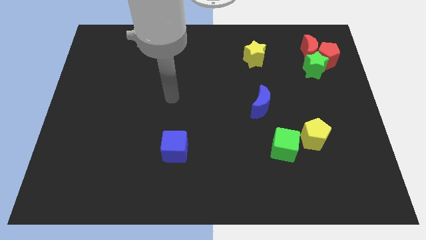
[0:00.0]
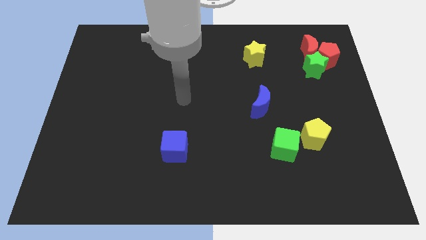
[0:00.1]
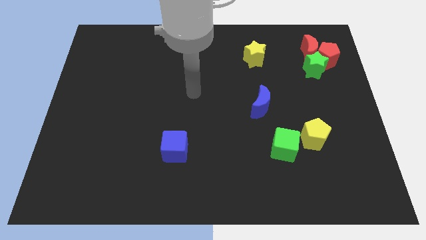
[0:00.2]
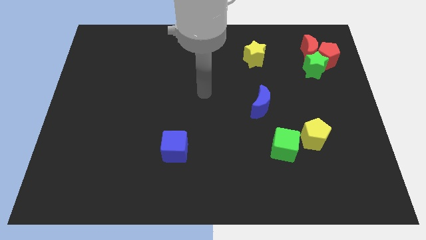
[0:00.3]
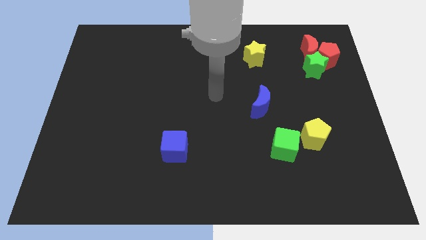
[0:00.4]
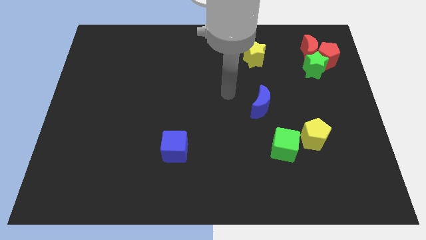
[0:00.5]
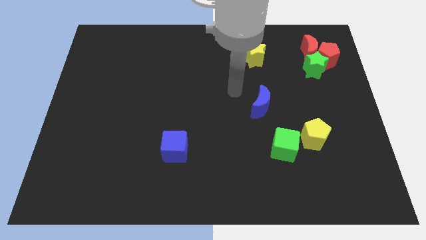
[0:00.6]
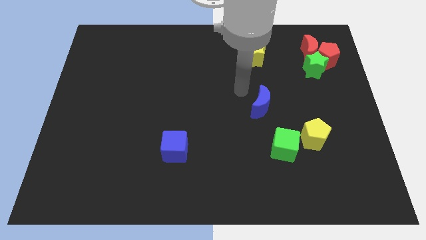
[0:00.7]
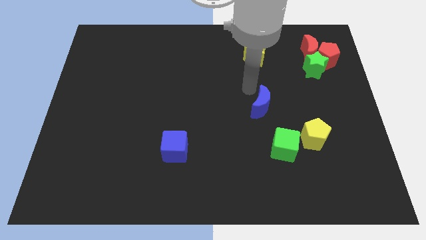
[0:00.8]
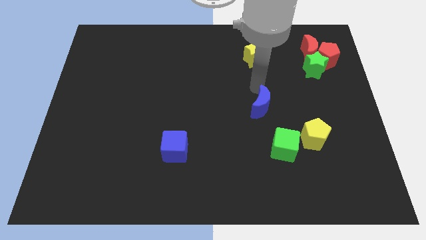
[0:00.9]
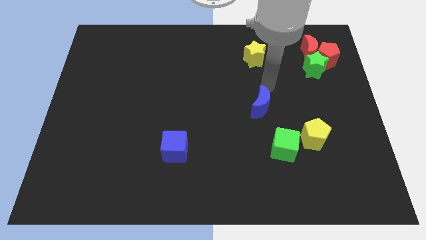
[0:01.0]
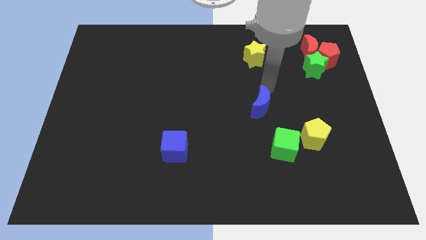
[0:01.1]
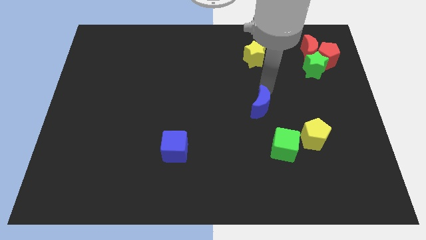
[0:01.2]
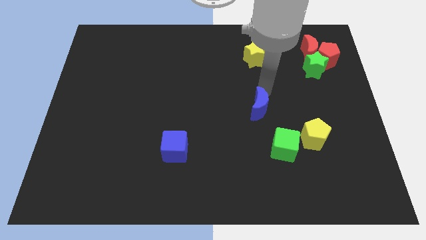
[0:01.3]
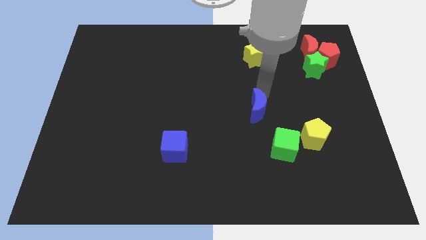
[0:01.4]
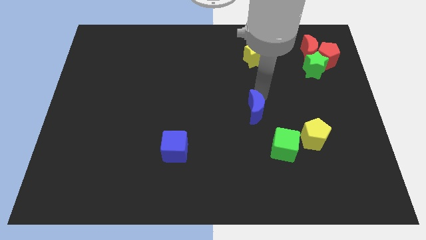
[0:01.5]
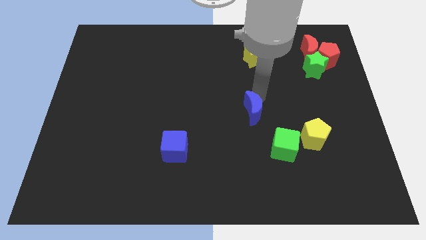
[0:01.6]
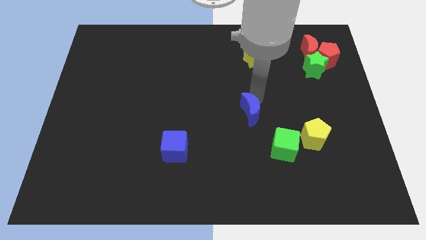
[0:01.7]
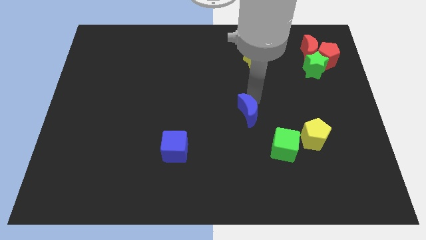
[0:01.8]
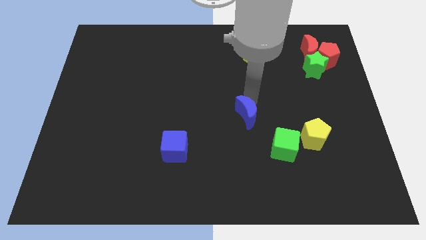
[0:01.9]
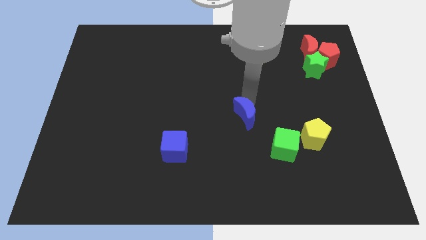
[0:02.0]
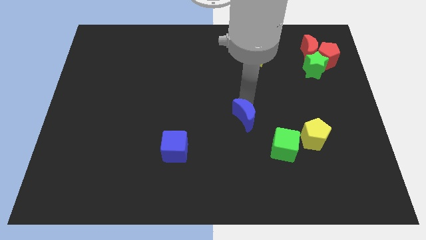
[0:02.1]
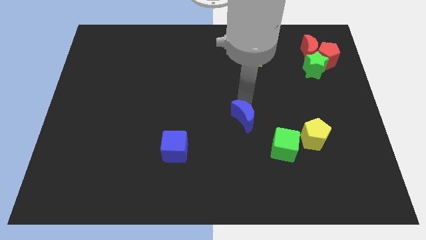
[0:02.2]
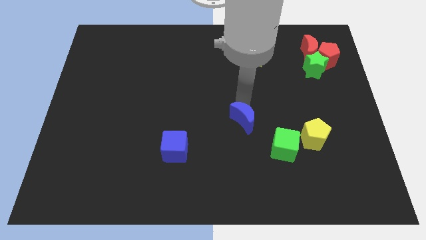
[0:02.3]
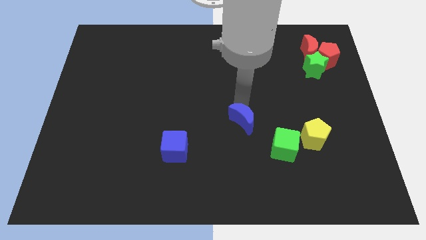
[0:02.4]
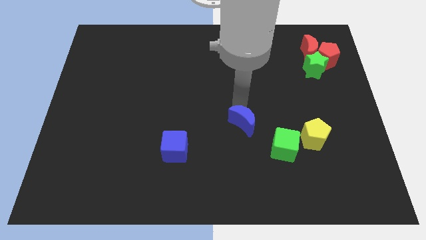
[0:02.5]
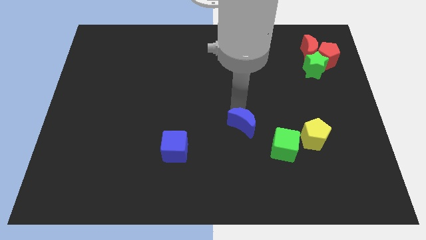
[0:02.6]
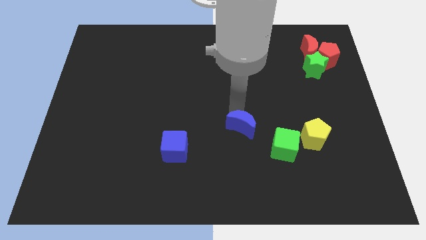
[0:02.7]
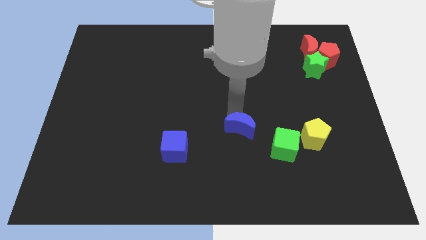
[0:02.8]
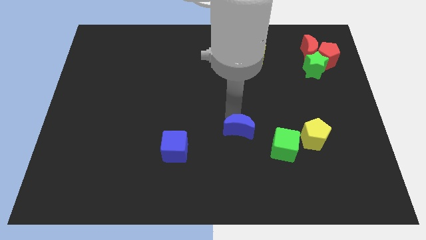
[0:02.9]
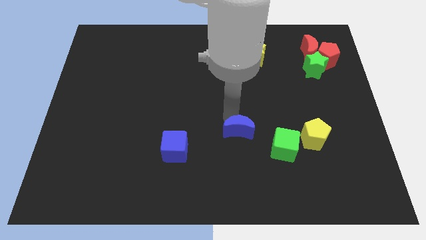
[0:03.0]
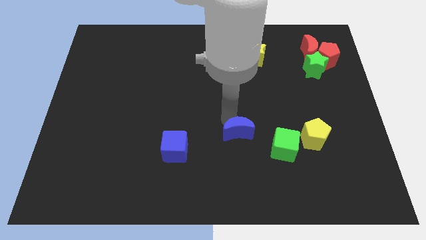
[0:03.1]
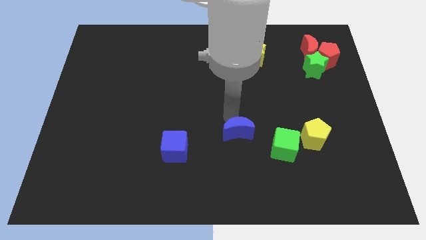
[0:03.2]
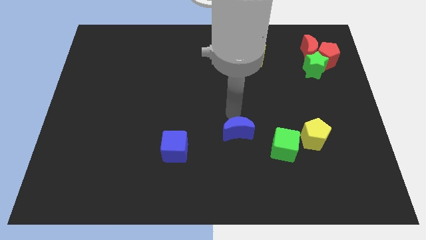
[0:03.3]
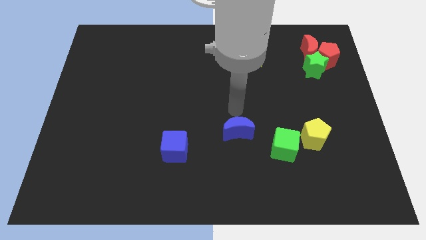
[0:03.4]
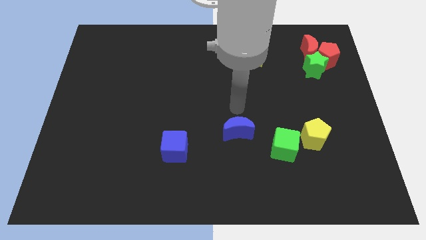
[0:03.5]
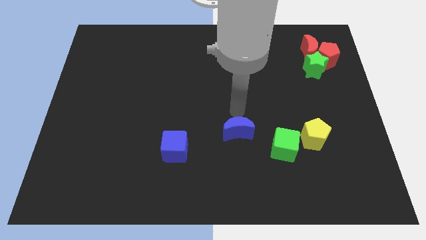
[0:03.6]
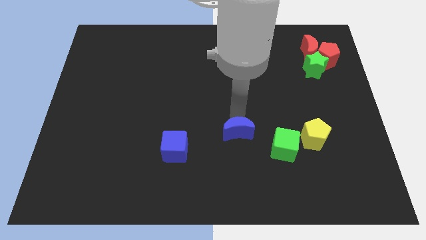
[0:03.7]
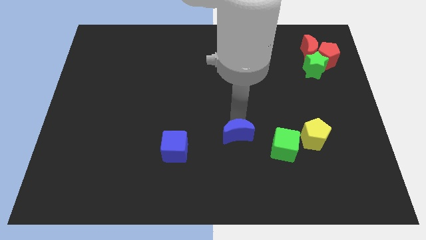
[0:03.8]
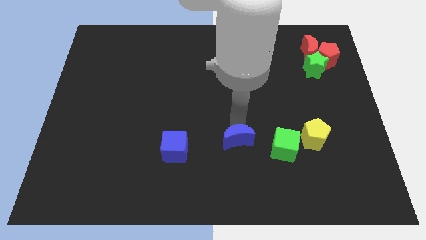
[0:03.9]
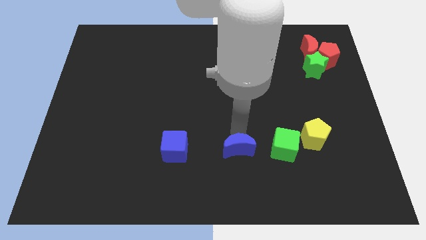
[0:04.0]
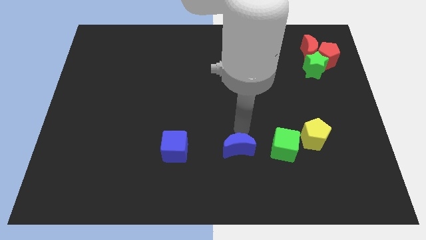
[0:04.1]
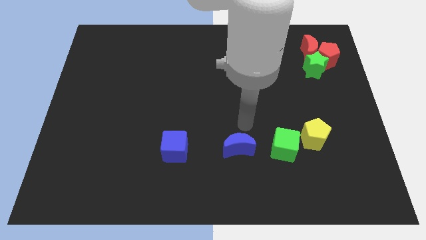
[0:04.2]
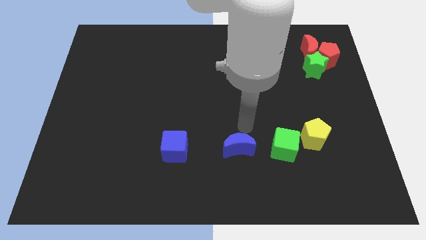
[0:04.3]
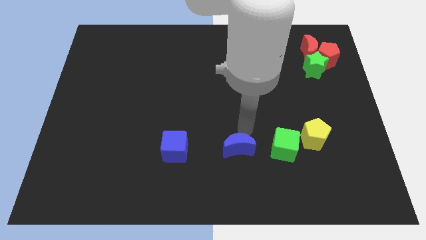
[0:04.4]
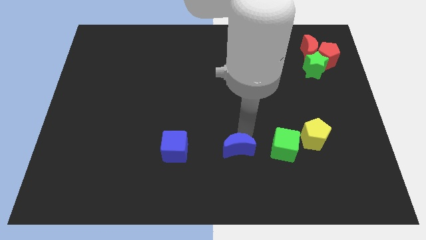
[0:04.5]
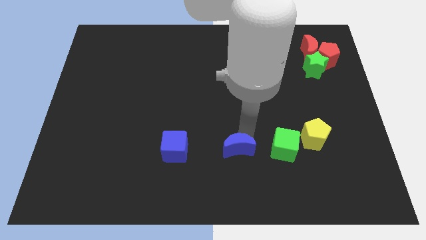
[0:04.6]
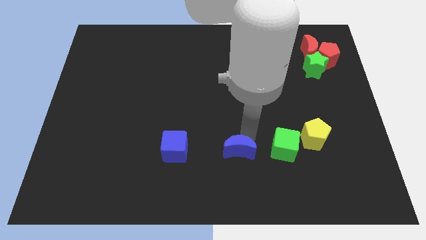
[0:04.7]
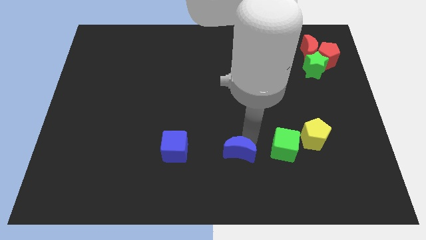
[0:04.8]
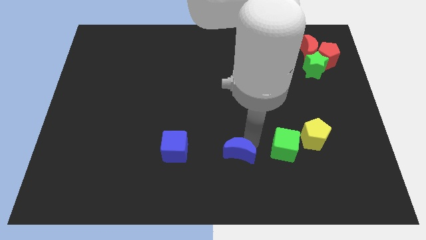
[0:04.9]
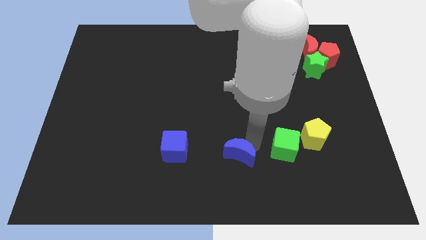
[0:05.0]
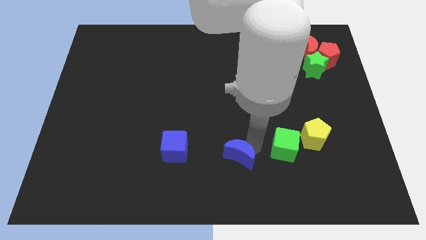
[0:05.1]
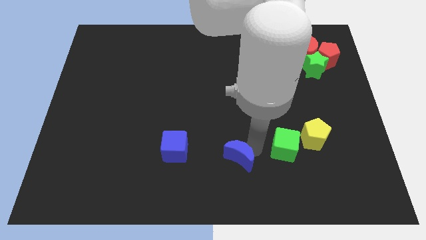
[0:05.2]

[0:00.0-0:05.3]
move the blue moon to the bottom
